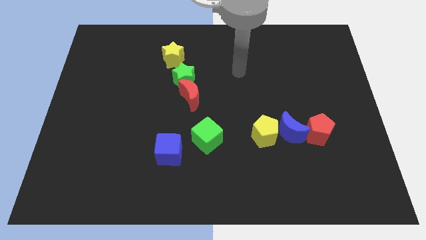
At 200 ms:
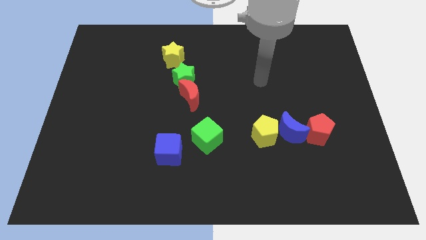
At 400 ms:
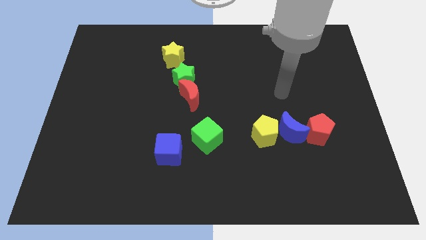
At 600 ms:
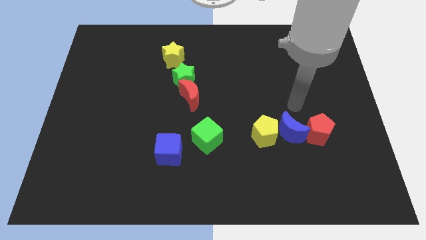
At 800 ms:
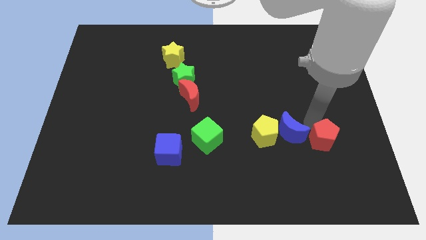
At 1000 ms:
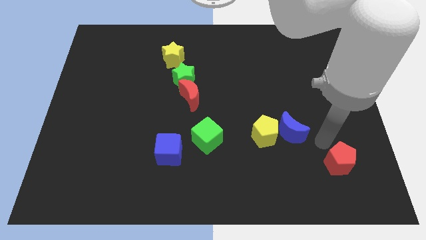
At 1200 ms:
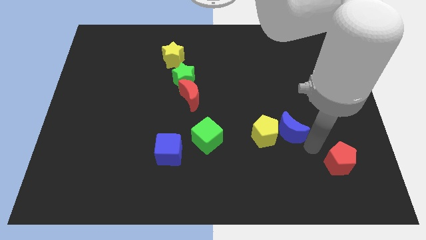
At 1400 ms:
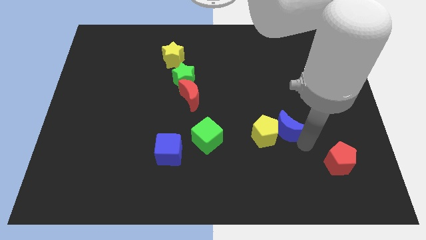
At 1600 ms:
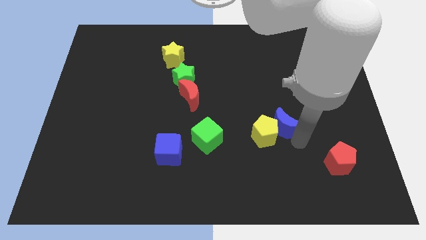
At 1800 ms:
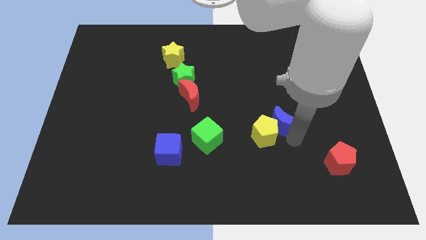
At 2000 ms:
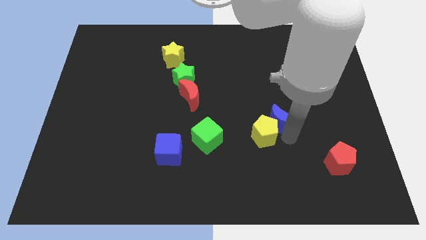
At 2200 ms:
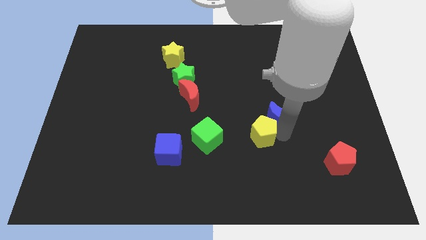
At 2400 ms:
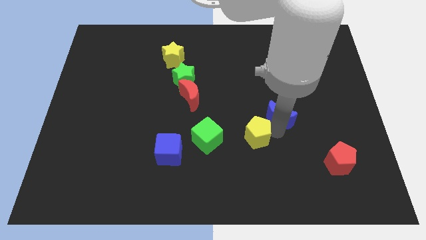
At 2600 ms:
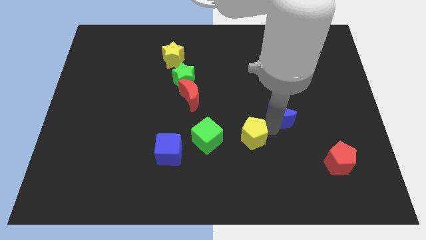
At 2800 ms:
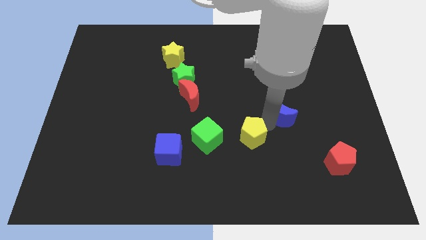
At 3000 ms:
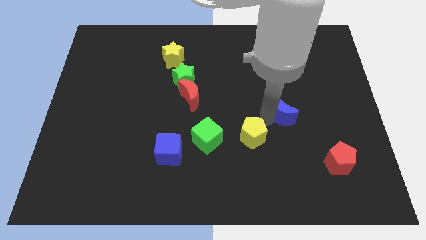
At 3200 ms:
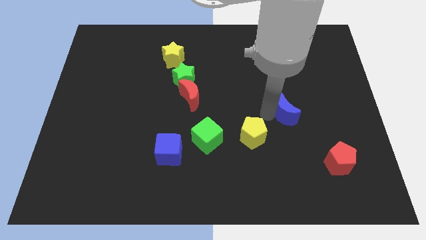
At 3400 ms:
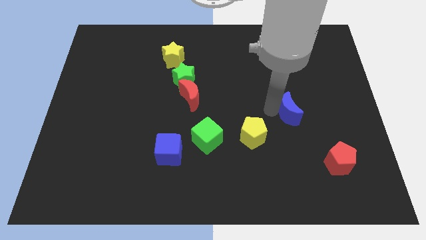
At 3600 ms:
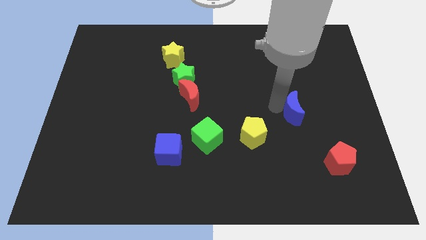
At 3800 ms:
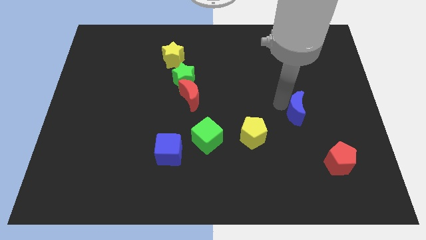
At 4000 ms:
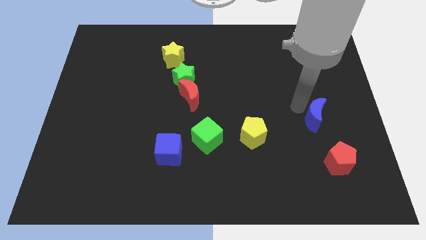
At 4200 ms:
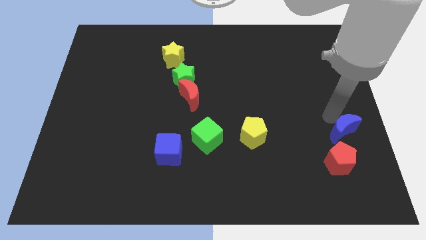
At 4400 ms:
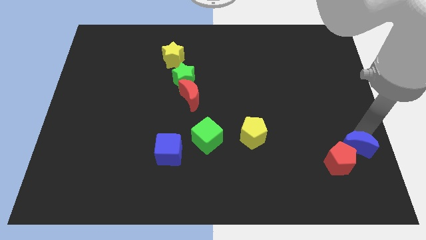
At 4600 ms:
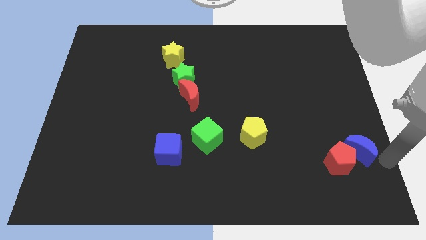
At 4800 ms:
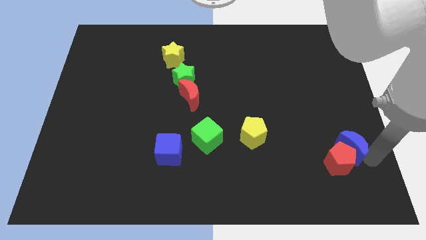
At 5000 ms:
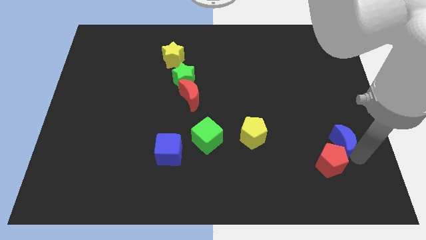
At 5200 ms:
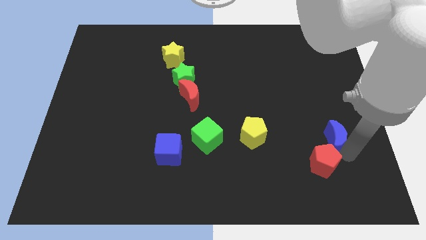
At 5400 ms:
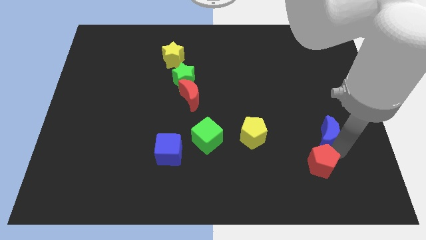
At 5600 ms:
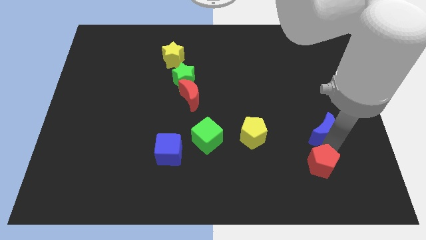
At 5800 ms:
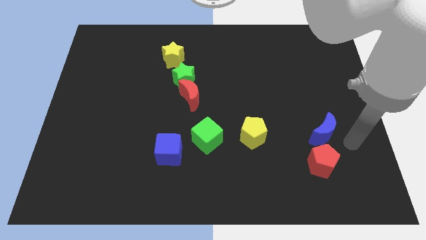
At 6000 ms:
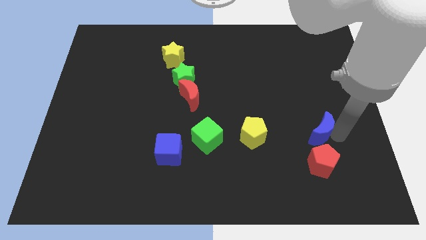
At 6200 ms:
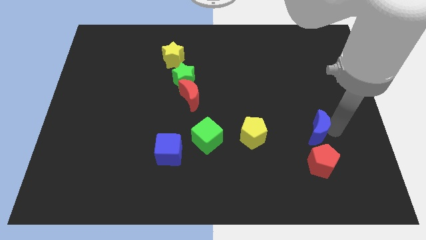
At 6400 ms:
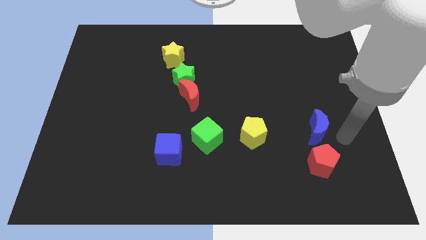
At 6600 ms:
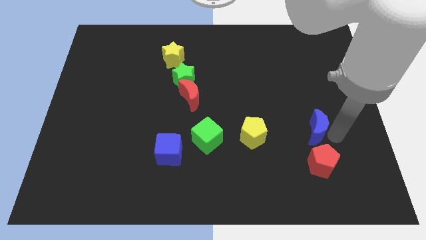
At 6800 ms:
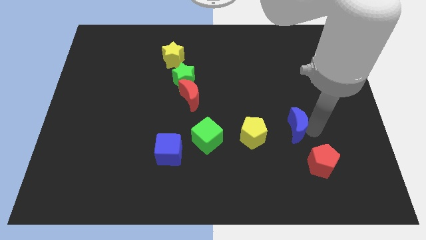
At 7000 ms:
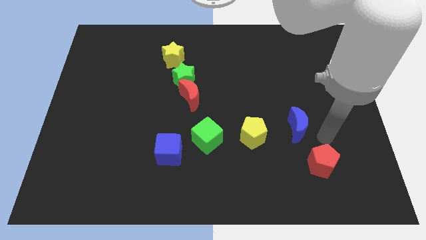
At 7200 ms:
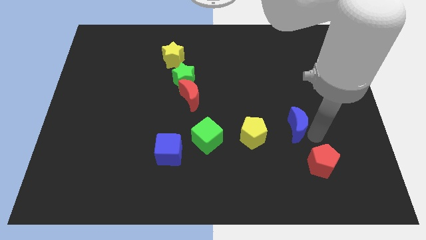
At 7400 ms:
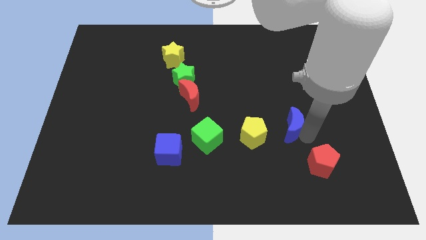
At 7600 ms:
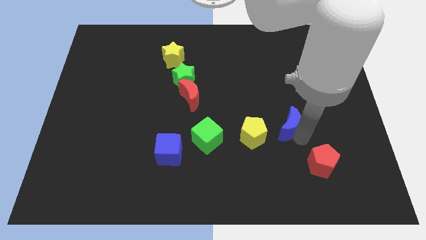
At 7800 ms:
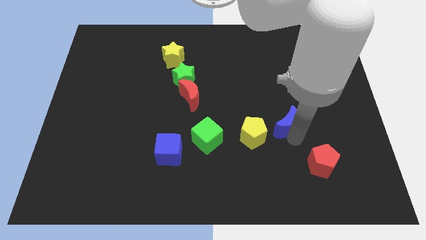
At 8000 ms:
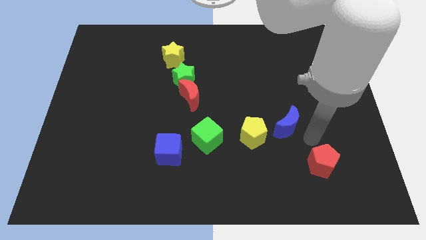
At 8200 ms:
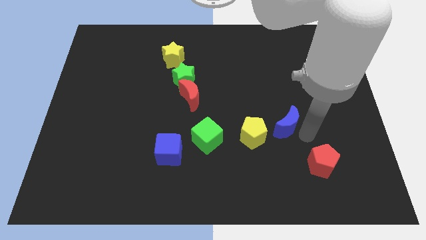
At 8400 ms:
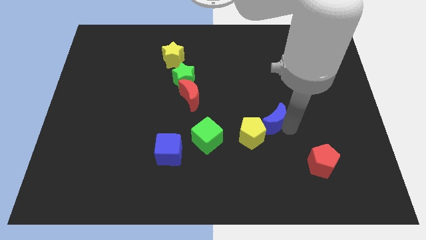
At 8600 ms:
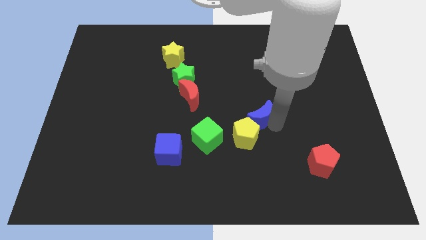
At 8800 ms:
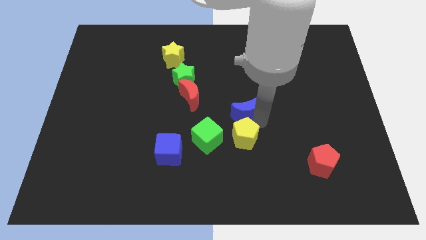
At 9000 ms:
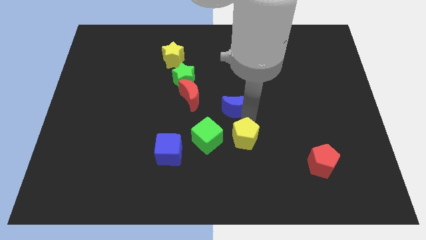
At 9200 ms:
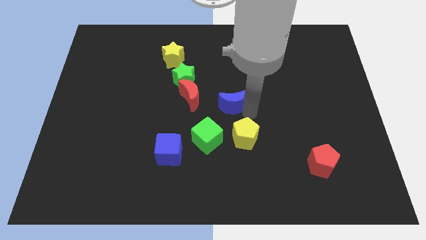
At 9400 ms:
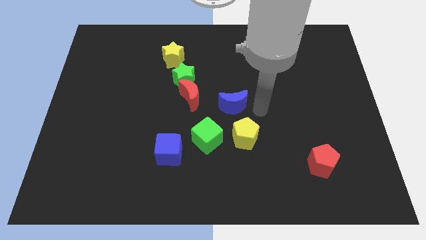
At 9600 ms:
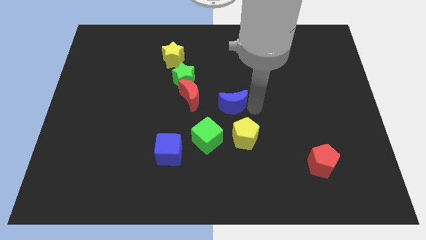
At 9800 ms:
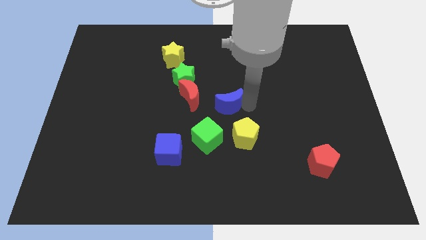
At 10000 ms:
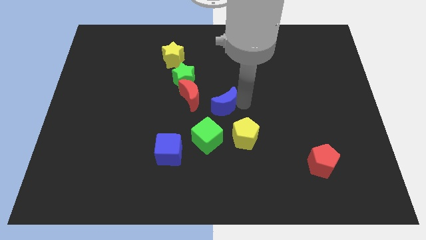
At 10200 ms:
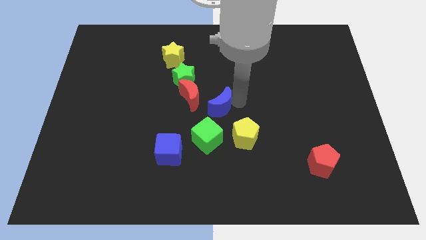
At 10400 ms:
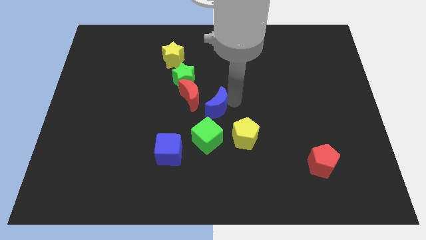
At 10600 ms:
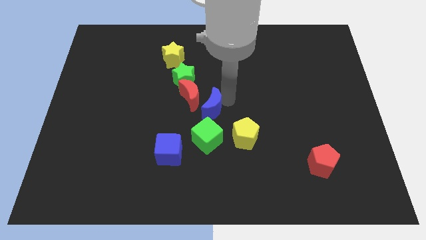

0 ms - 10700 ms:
push the blue moon to the red moon

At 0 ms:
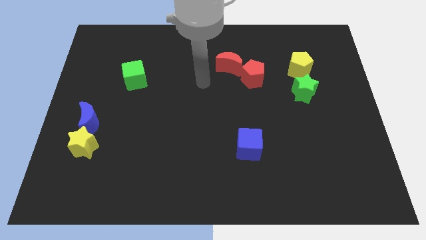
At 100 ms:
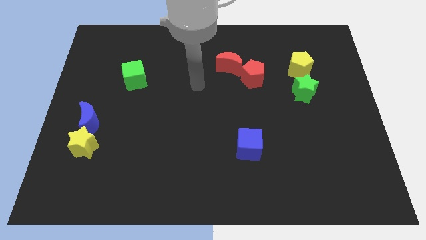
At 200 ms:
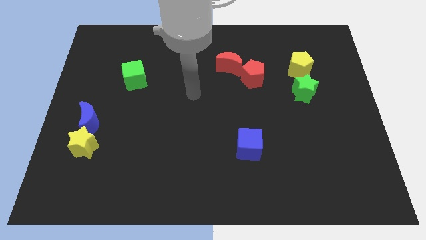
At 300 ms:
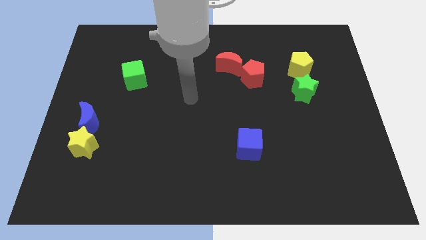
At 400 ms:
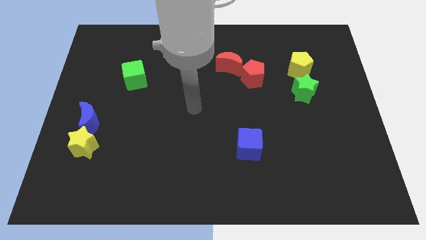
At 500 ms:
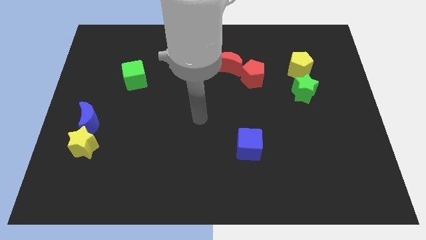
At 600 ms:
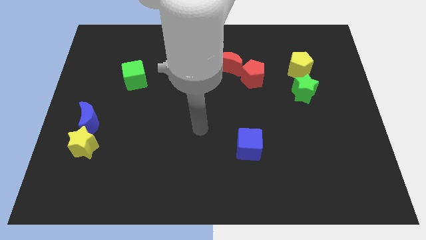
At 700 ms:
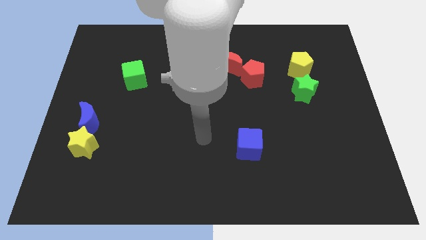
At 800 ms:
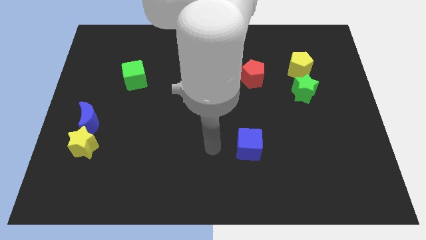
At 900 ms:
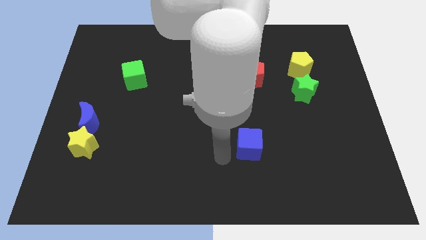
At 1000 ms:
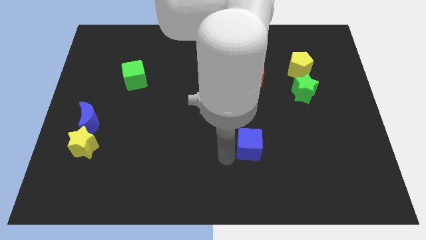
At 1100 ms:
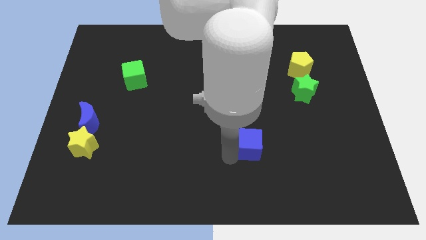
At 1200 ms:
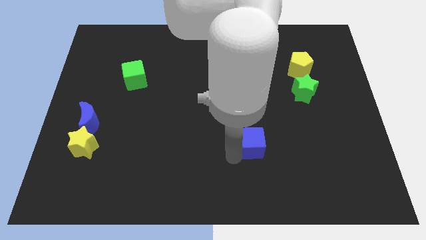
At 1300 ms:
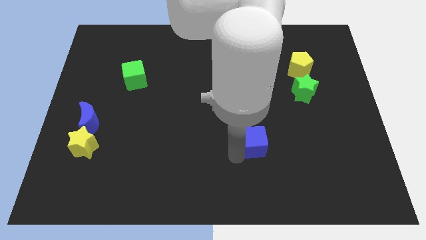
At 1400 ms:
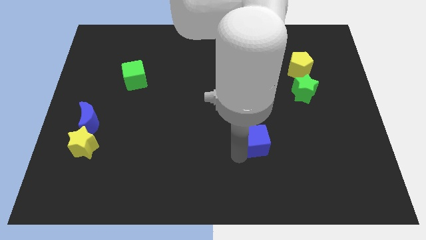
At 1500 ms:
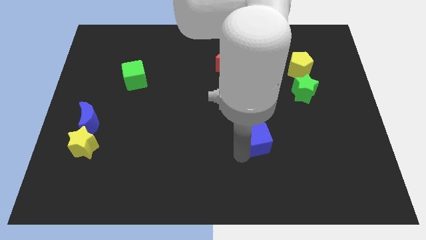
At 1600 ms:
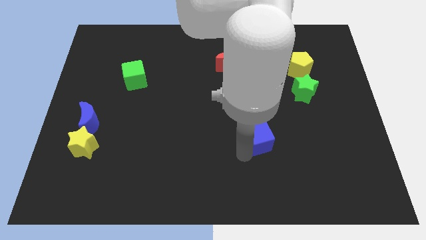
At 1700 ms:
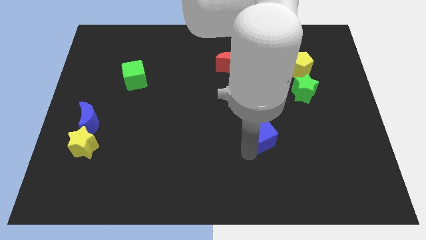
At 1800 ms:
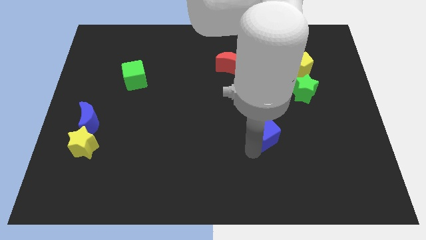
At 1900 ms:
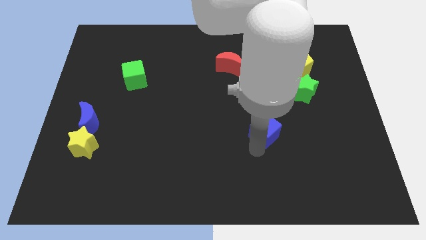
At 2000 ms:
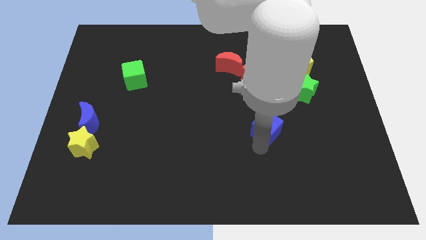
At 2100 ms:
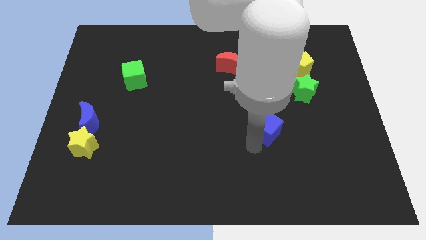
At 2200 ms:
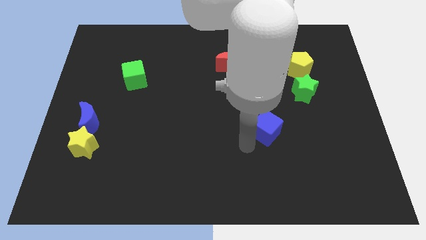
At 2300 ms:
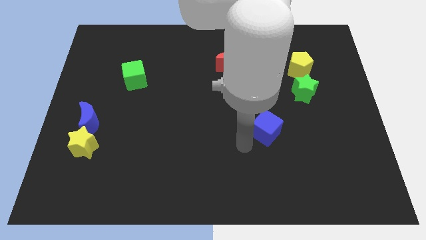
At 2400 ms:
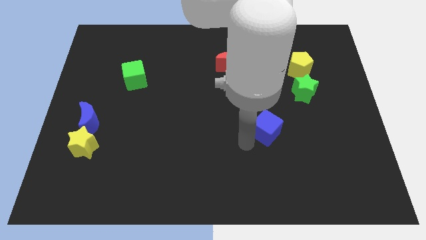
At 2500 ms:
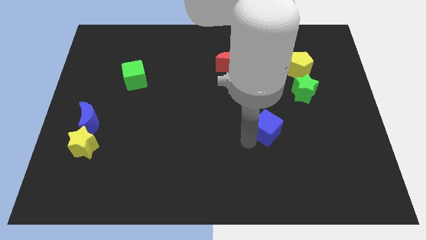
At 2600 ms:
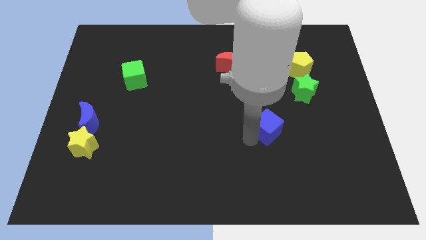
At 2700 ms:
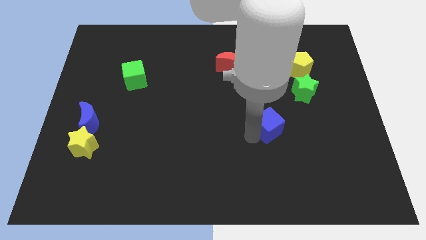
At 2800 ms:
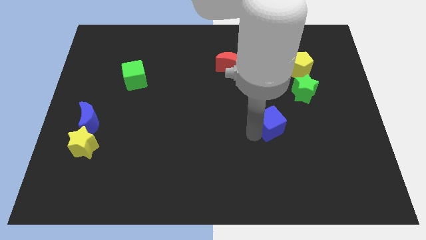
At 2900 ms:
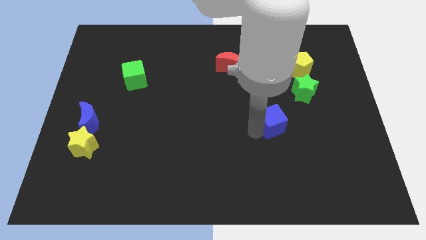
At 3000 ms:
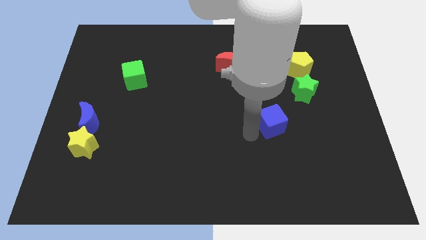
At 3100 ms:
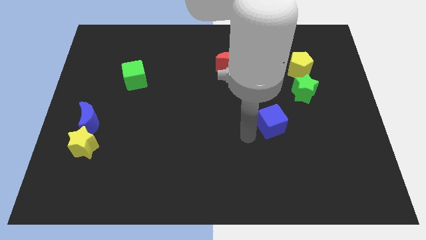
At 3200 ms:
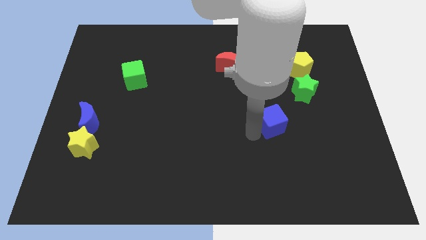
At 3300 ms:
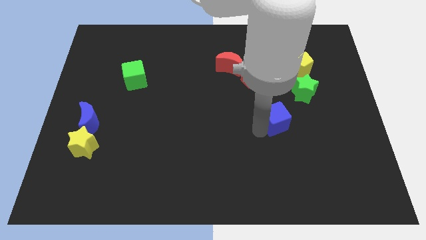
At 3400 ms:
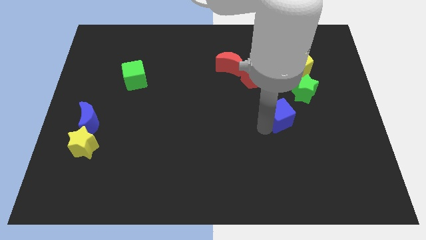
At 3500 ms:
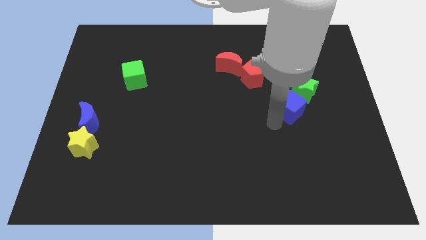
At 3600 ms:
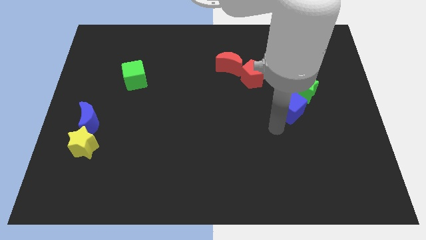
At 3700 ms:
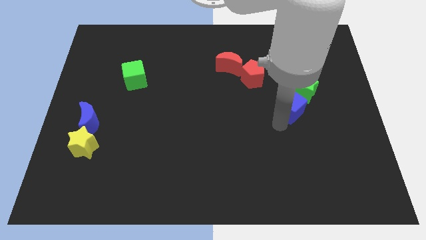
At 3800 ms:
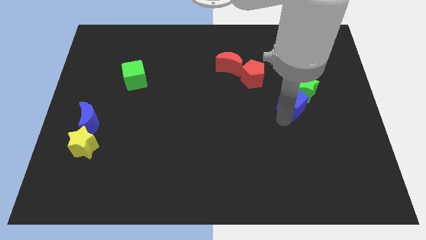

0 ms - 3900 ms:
slide the blue cube to the green star
